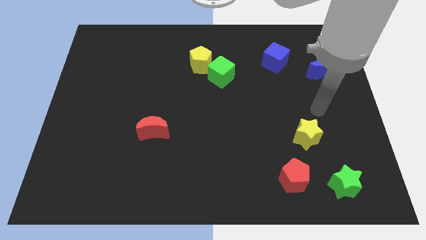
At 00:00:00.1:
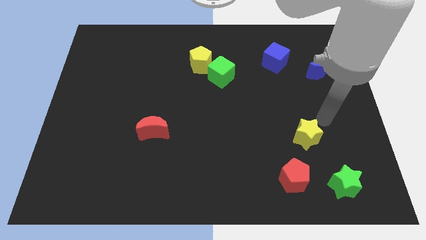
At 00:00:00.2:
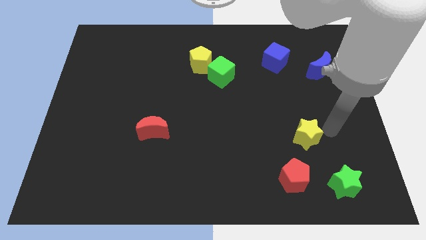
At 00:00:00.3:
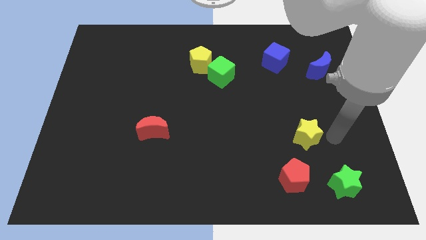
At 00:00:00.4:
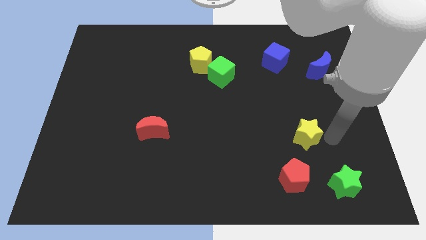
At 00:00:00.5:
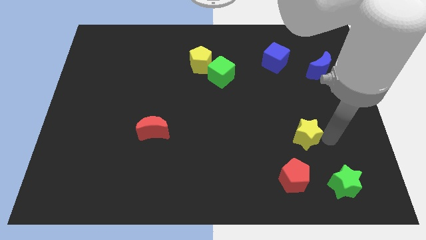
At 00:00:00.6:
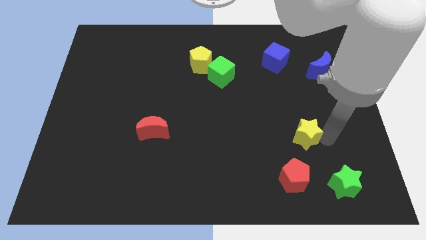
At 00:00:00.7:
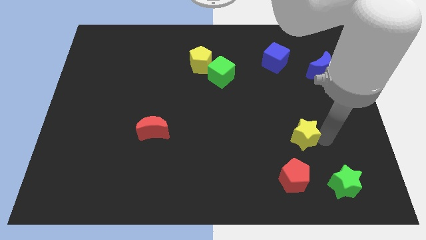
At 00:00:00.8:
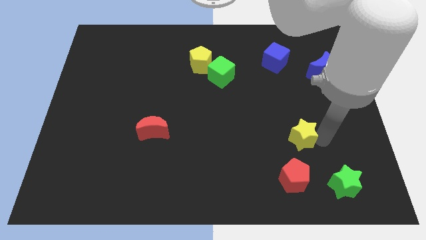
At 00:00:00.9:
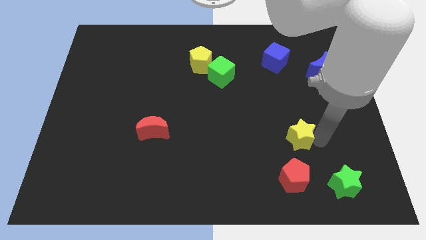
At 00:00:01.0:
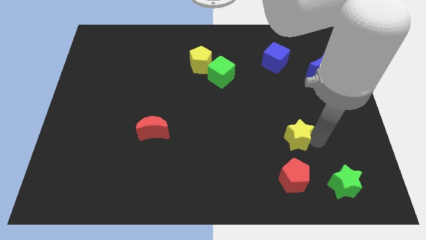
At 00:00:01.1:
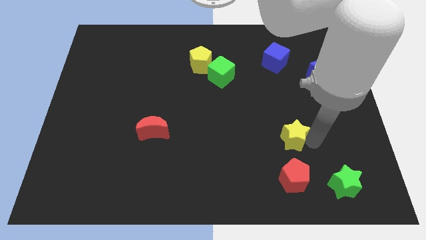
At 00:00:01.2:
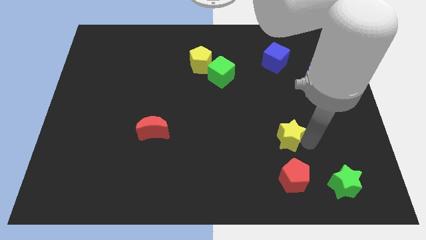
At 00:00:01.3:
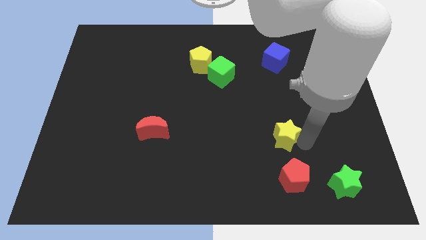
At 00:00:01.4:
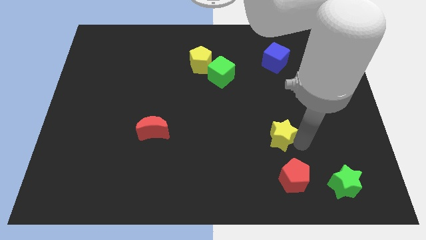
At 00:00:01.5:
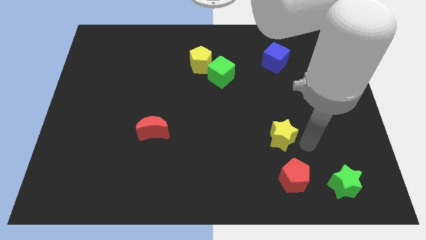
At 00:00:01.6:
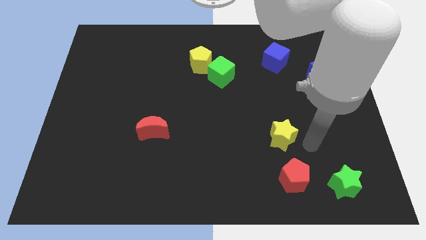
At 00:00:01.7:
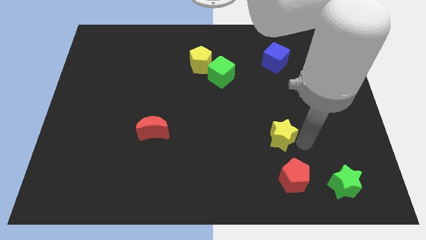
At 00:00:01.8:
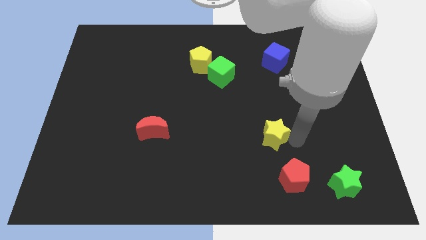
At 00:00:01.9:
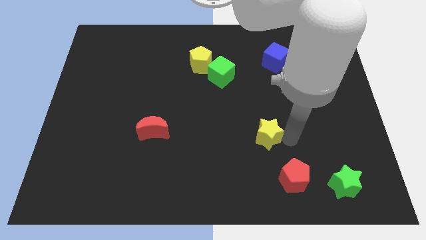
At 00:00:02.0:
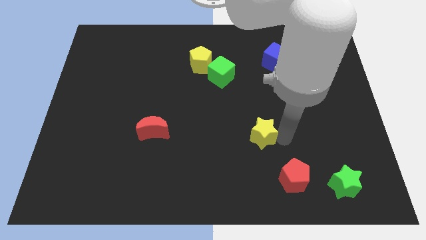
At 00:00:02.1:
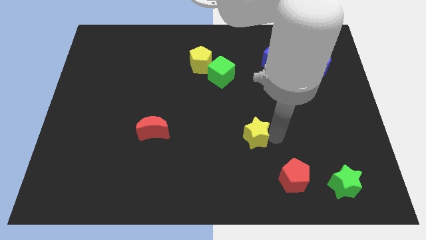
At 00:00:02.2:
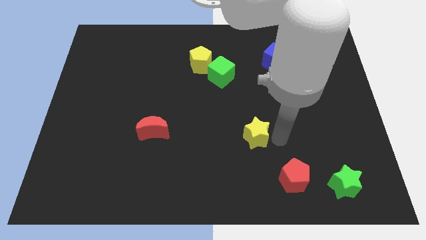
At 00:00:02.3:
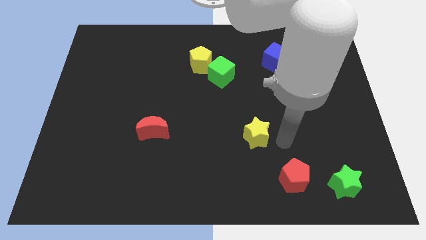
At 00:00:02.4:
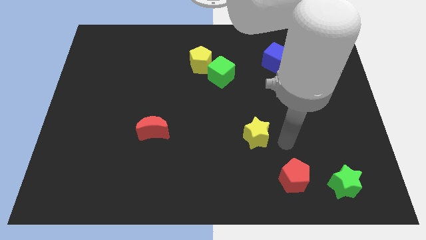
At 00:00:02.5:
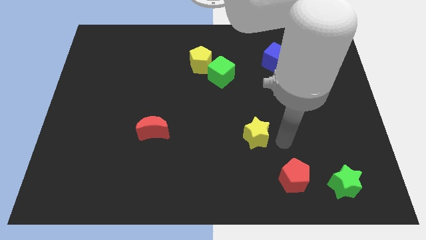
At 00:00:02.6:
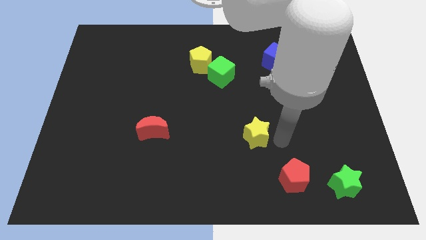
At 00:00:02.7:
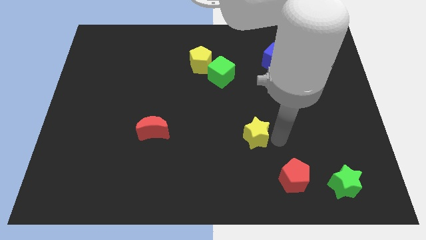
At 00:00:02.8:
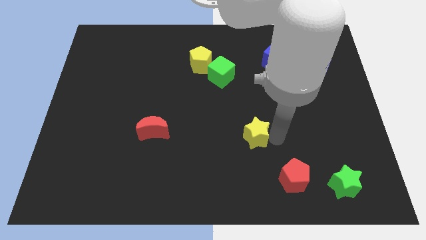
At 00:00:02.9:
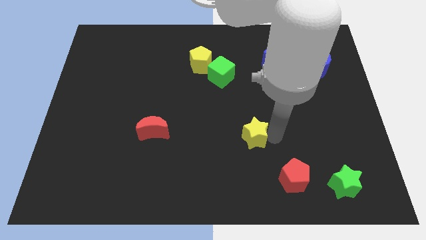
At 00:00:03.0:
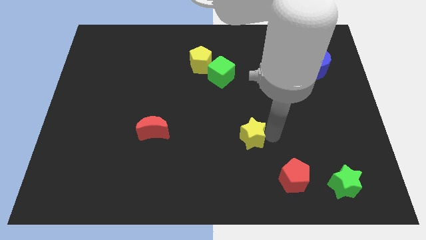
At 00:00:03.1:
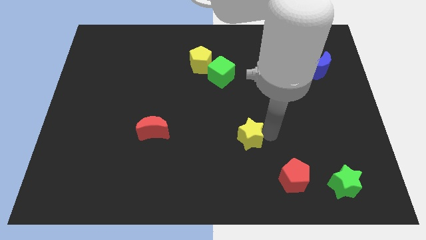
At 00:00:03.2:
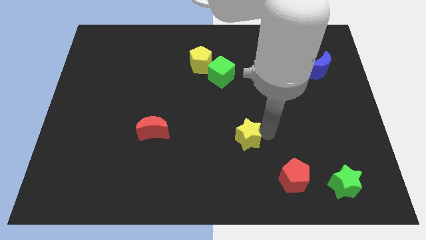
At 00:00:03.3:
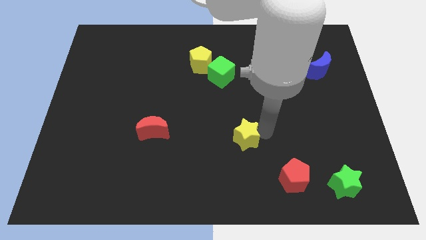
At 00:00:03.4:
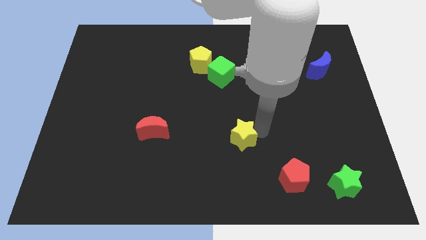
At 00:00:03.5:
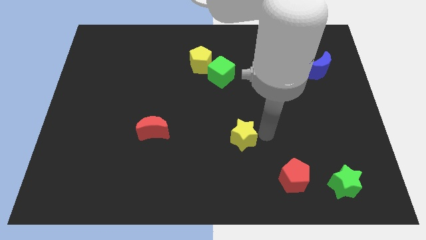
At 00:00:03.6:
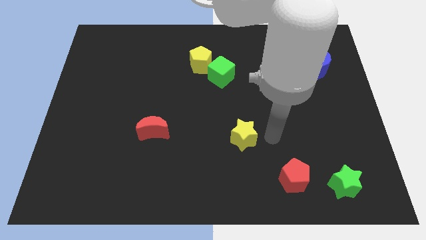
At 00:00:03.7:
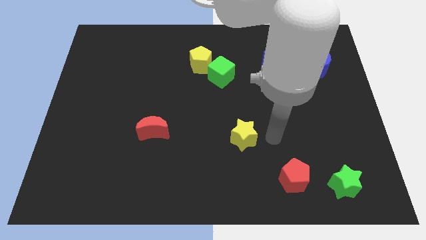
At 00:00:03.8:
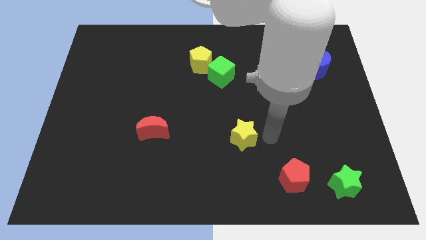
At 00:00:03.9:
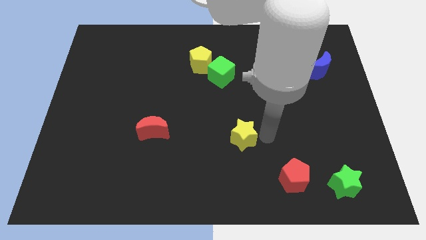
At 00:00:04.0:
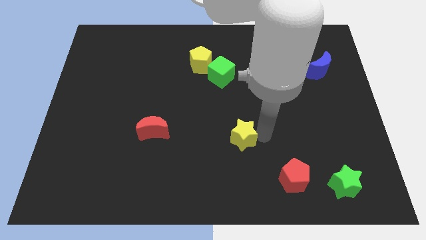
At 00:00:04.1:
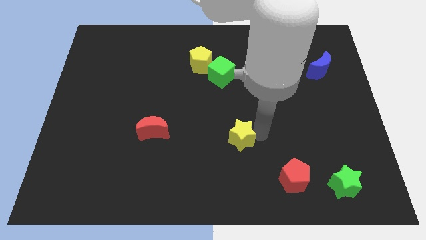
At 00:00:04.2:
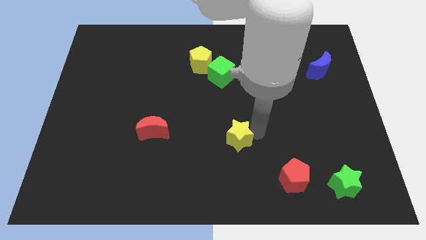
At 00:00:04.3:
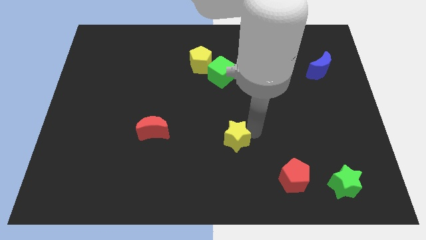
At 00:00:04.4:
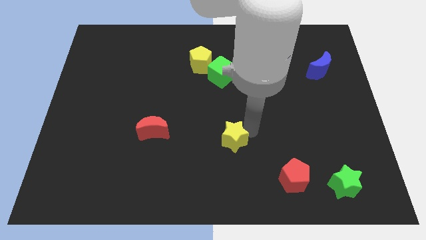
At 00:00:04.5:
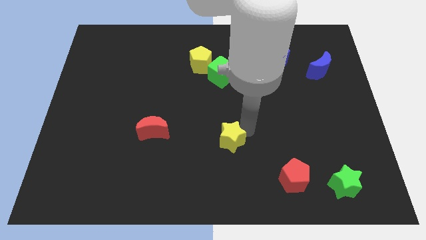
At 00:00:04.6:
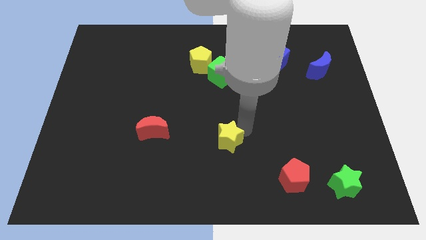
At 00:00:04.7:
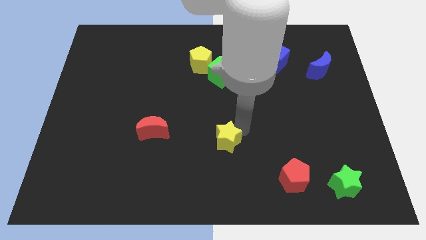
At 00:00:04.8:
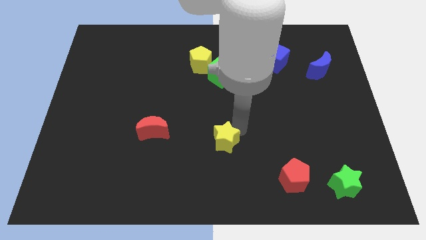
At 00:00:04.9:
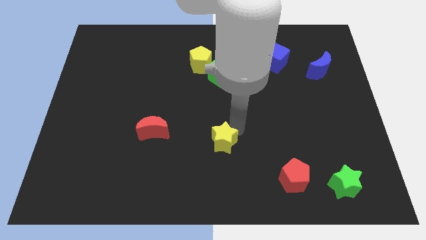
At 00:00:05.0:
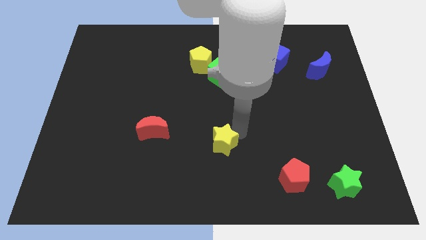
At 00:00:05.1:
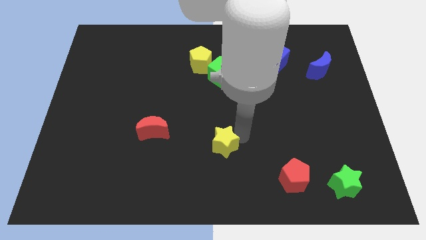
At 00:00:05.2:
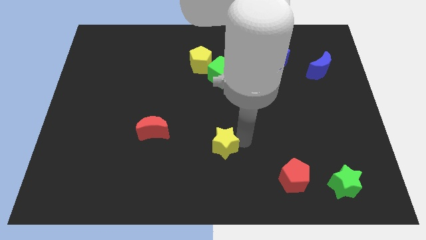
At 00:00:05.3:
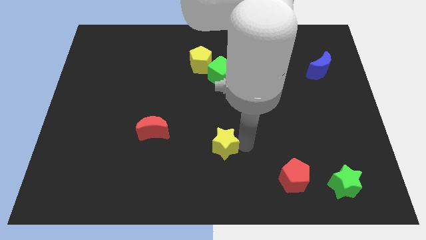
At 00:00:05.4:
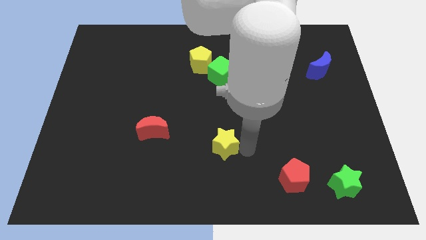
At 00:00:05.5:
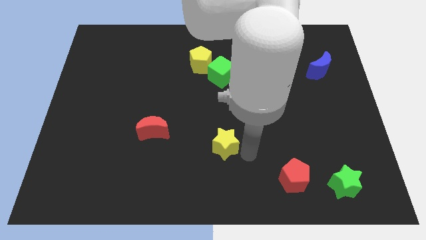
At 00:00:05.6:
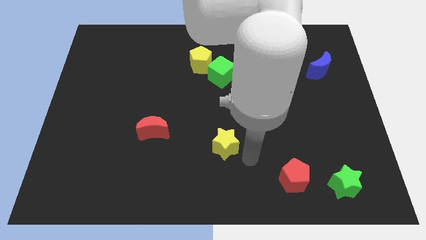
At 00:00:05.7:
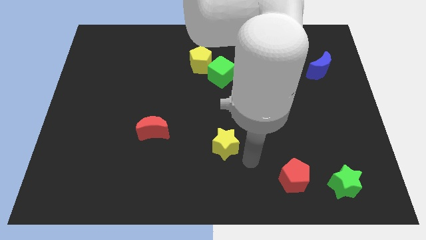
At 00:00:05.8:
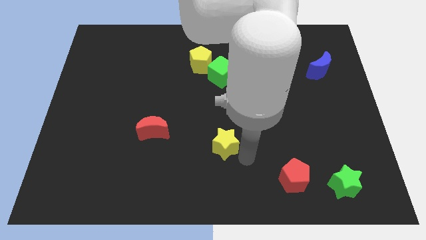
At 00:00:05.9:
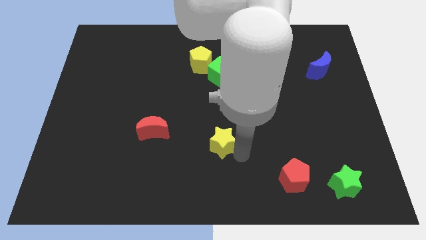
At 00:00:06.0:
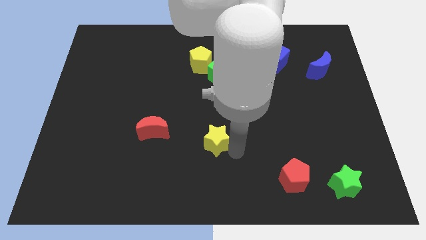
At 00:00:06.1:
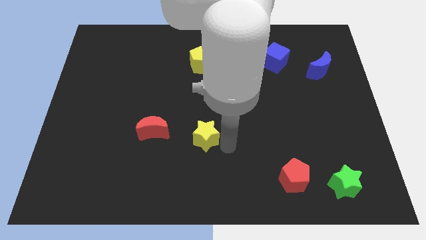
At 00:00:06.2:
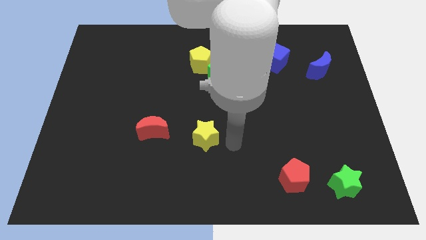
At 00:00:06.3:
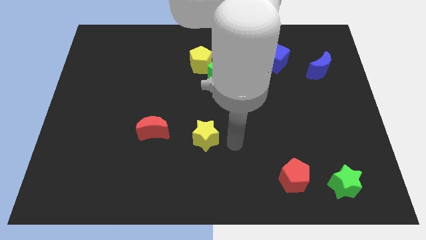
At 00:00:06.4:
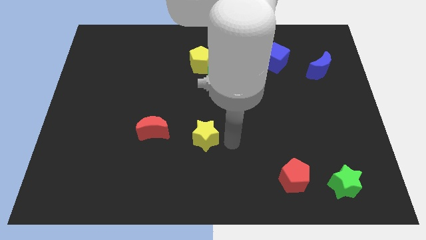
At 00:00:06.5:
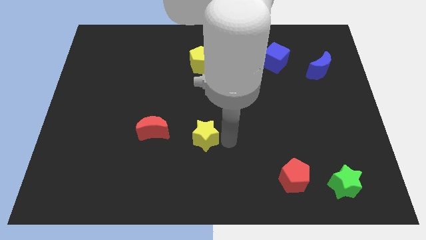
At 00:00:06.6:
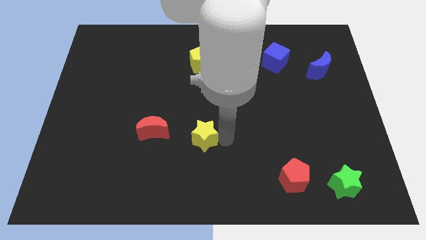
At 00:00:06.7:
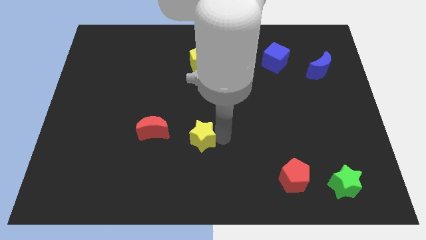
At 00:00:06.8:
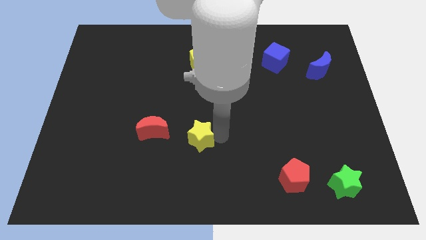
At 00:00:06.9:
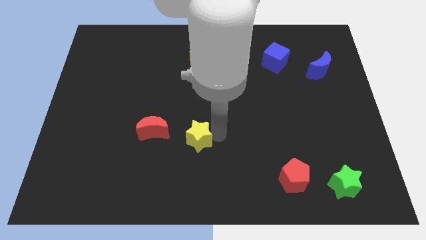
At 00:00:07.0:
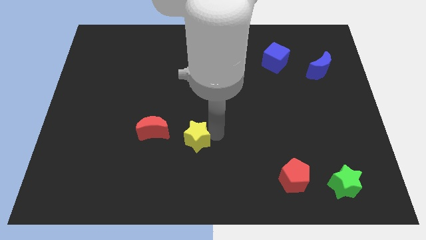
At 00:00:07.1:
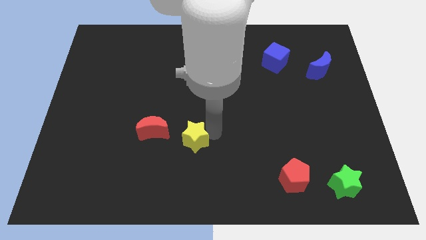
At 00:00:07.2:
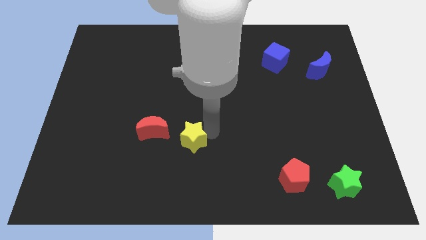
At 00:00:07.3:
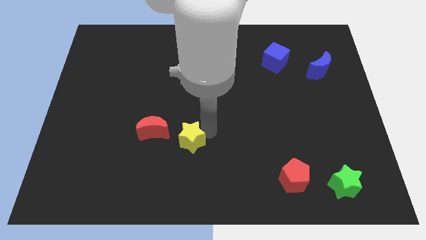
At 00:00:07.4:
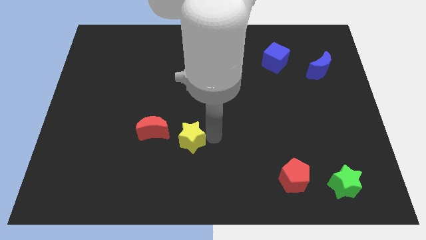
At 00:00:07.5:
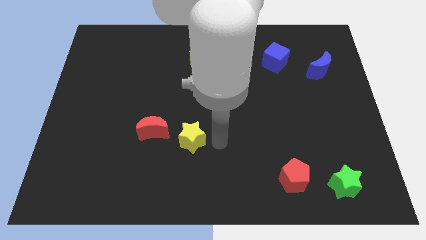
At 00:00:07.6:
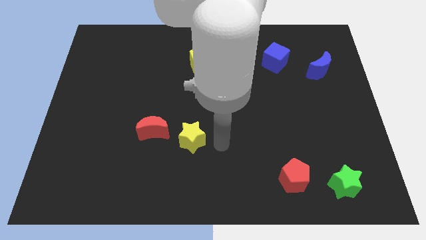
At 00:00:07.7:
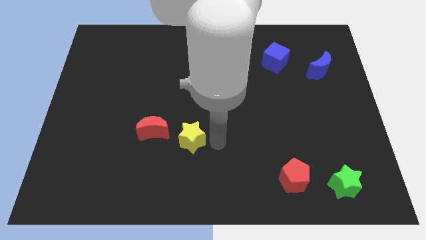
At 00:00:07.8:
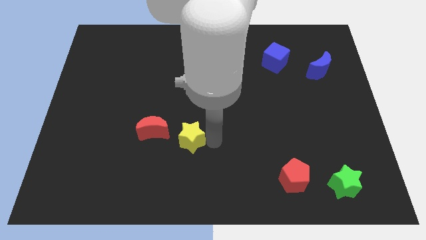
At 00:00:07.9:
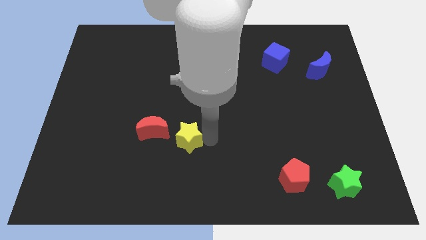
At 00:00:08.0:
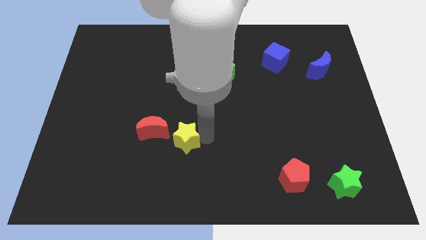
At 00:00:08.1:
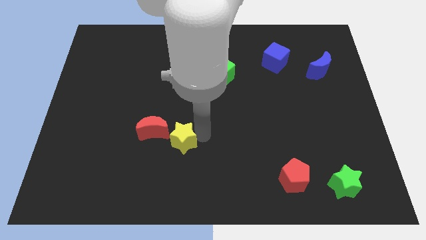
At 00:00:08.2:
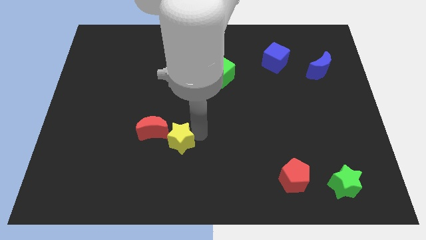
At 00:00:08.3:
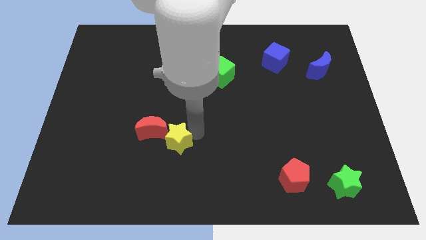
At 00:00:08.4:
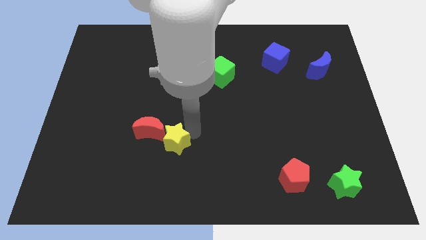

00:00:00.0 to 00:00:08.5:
slide the yellow star towards the red moon
